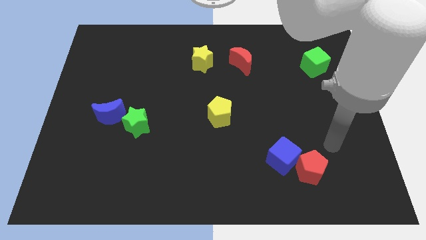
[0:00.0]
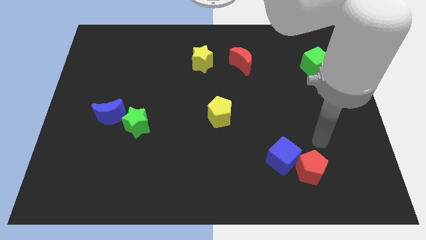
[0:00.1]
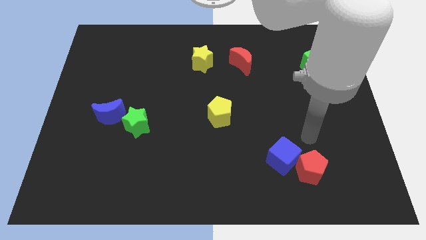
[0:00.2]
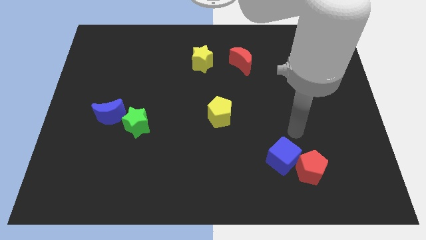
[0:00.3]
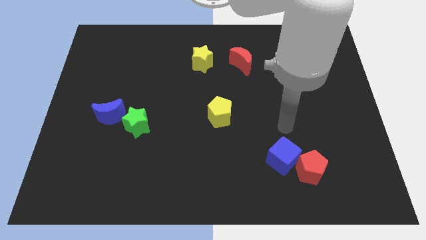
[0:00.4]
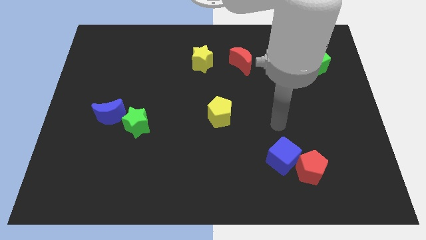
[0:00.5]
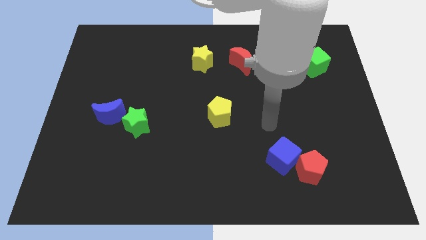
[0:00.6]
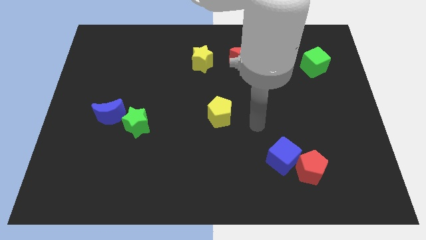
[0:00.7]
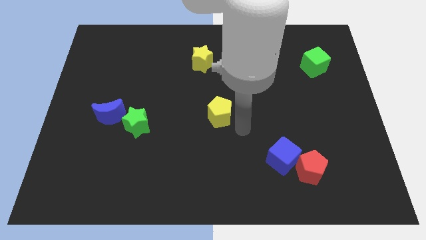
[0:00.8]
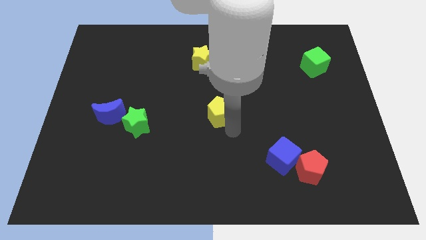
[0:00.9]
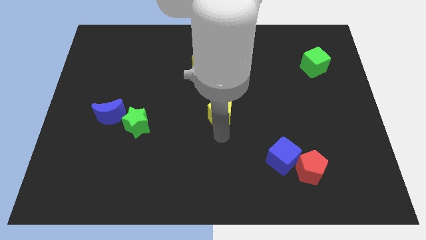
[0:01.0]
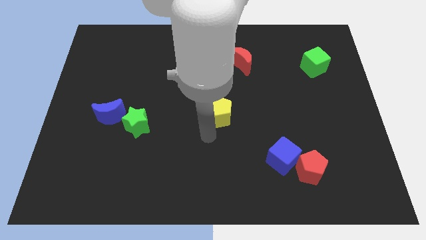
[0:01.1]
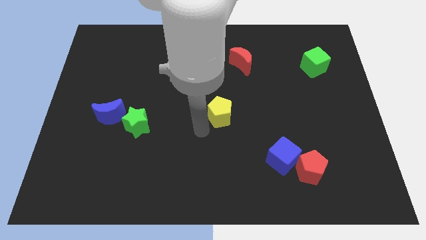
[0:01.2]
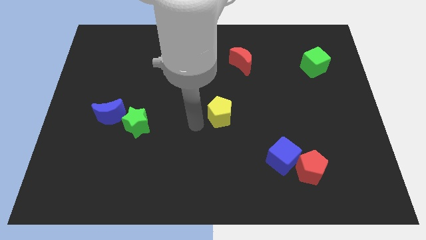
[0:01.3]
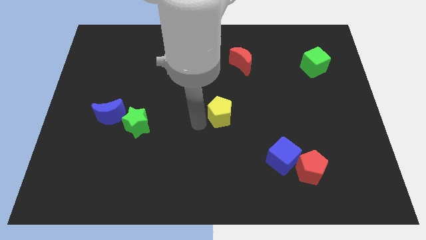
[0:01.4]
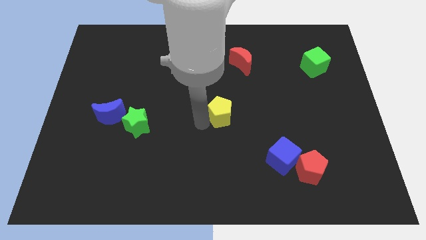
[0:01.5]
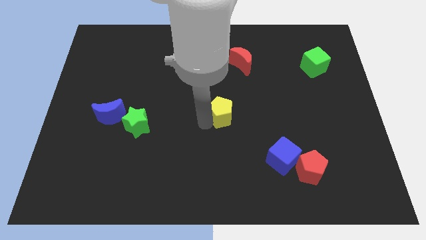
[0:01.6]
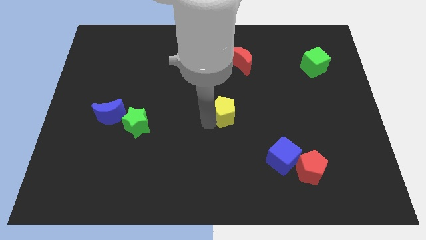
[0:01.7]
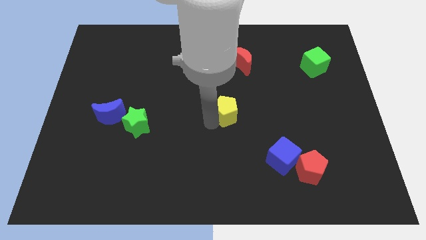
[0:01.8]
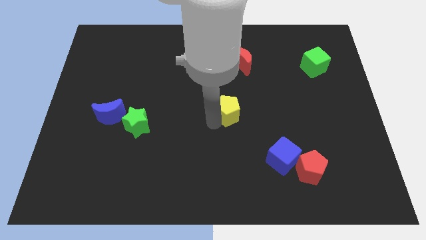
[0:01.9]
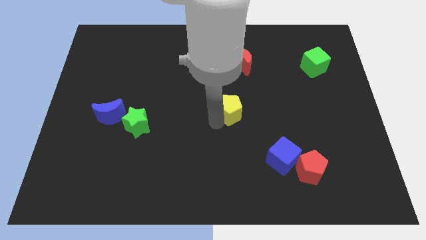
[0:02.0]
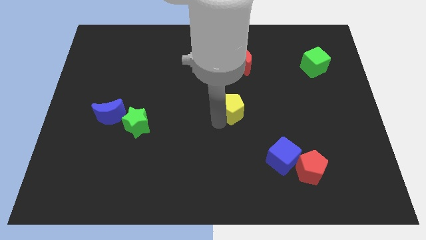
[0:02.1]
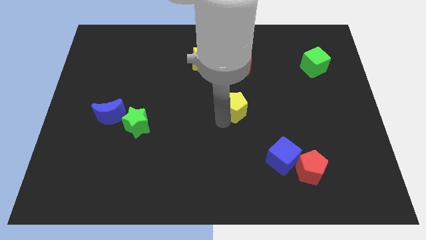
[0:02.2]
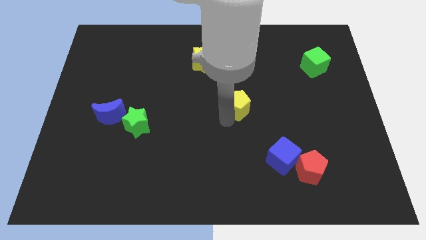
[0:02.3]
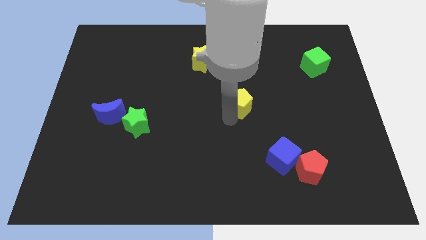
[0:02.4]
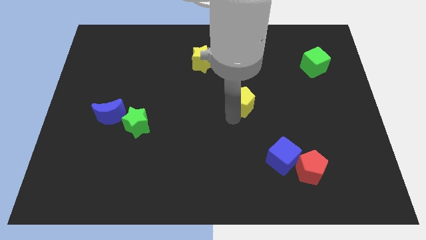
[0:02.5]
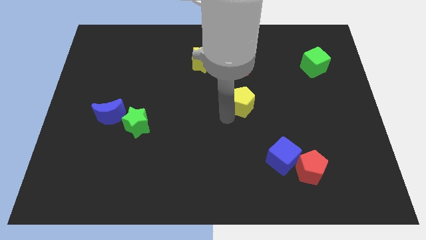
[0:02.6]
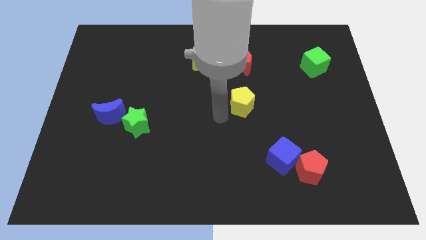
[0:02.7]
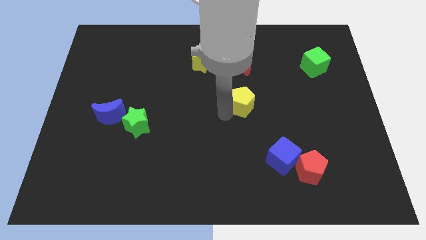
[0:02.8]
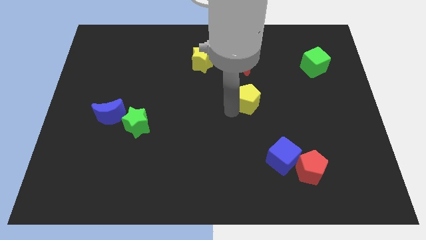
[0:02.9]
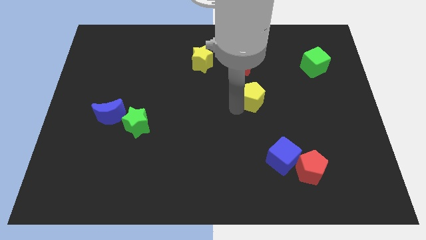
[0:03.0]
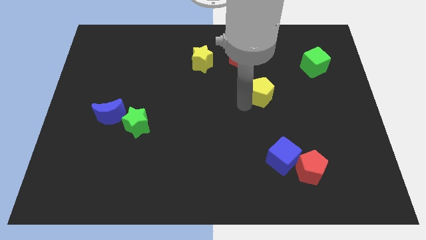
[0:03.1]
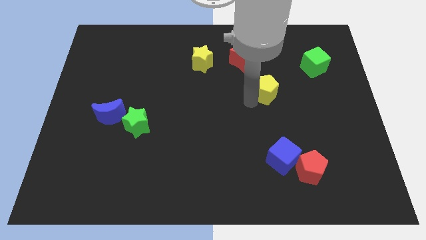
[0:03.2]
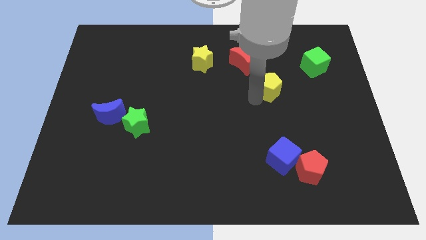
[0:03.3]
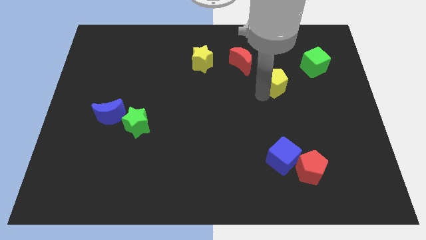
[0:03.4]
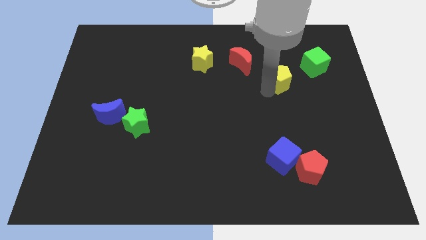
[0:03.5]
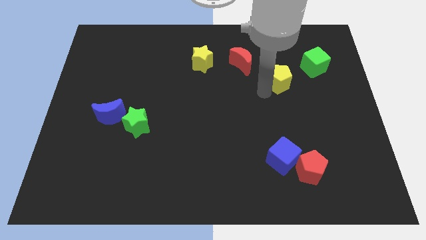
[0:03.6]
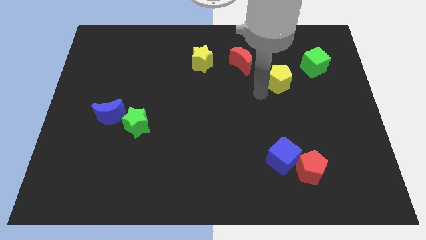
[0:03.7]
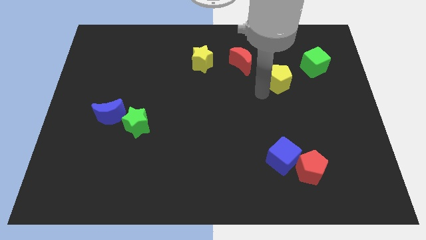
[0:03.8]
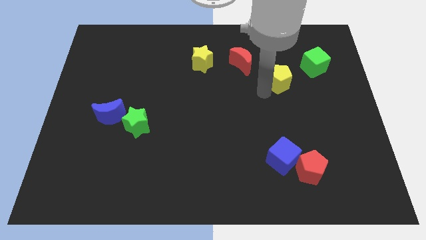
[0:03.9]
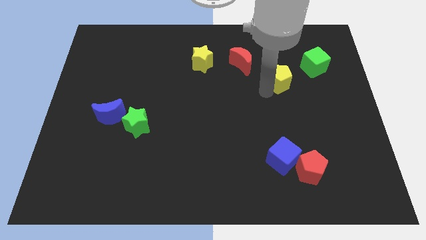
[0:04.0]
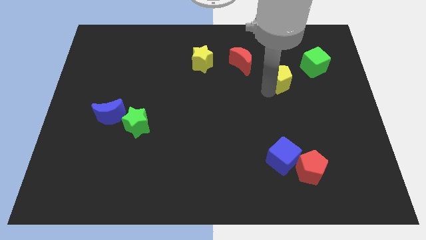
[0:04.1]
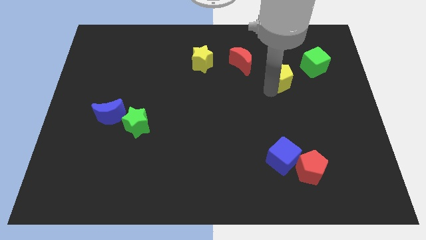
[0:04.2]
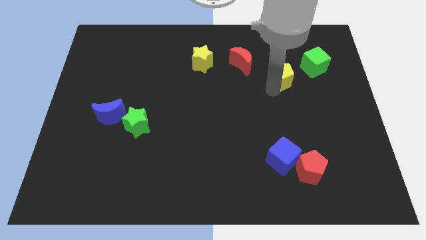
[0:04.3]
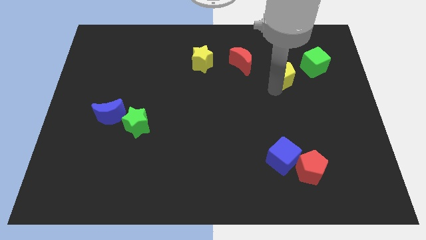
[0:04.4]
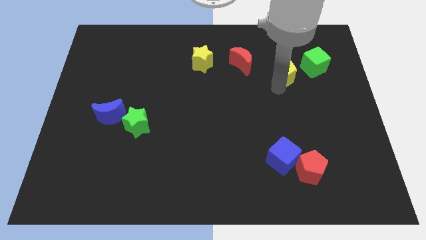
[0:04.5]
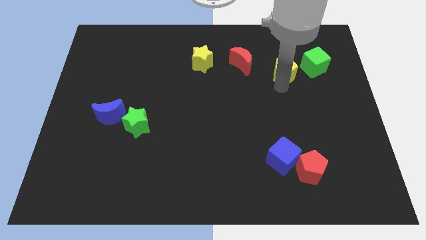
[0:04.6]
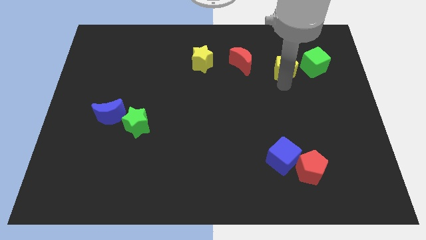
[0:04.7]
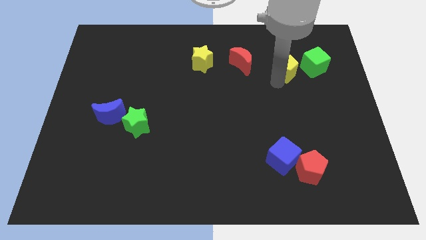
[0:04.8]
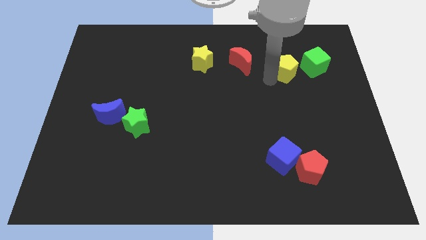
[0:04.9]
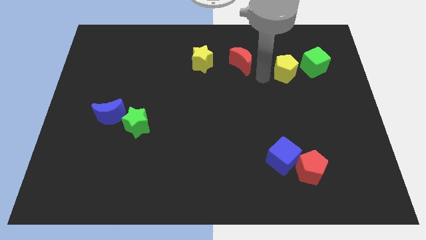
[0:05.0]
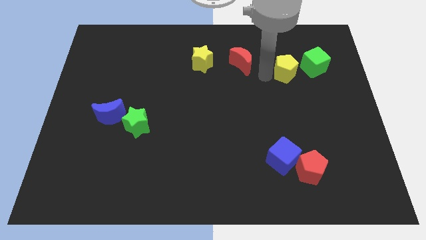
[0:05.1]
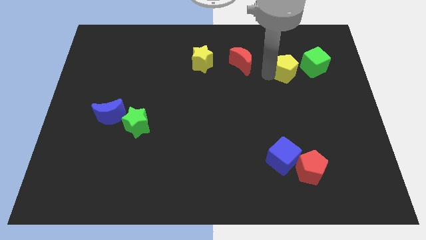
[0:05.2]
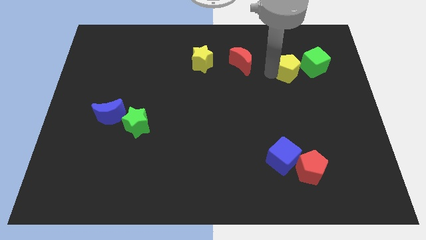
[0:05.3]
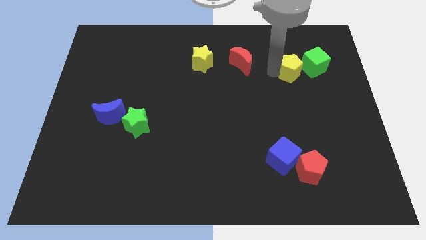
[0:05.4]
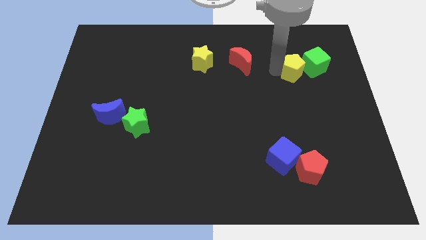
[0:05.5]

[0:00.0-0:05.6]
slide the yellow pentagon to the green cube

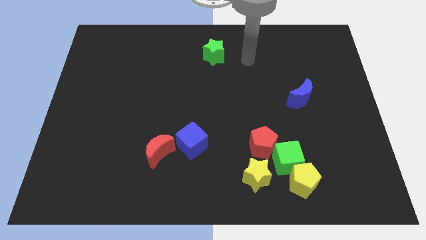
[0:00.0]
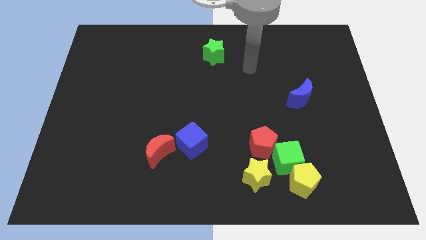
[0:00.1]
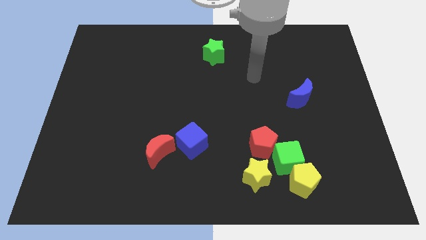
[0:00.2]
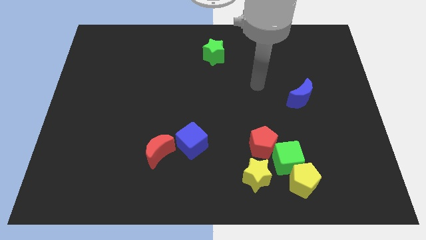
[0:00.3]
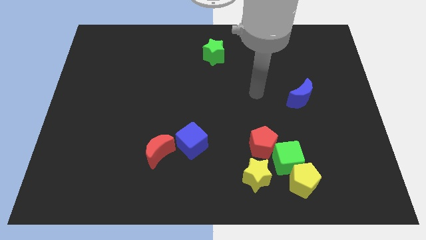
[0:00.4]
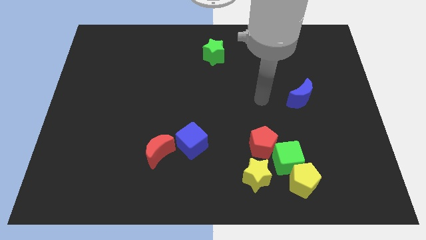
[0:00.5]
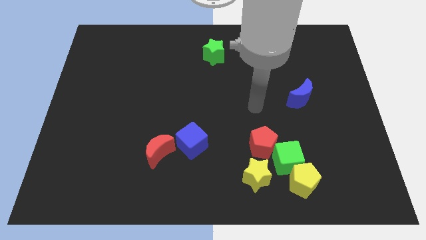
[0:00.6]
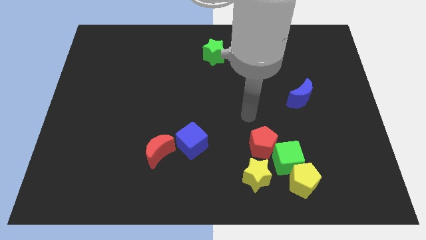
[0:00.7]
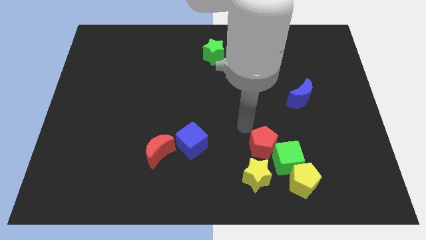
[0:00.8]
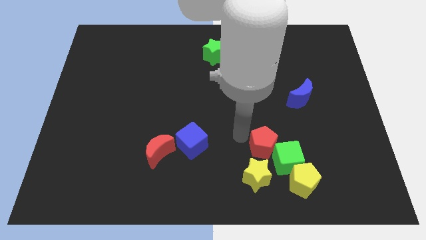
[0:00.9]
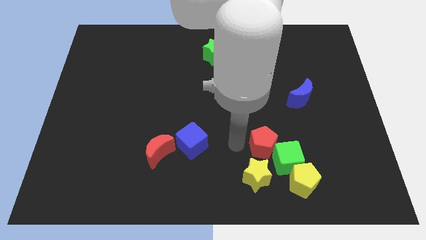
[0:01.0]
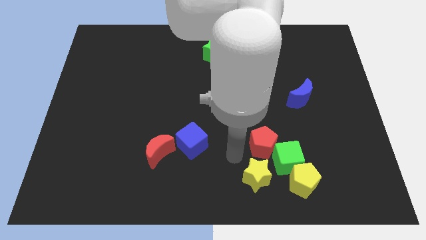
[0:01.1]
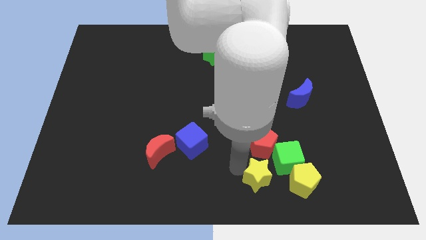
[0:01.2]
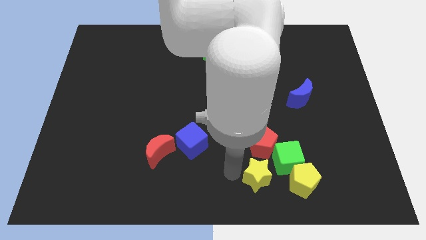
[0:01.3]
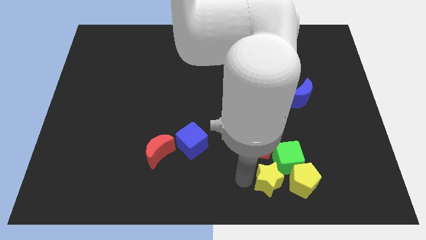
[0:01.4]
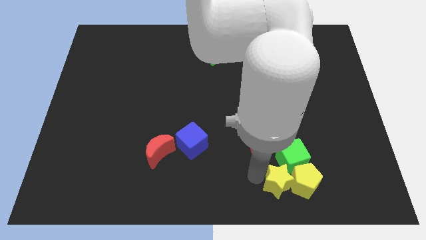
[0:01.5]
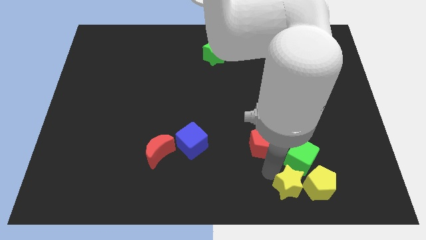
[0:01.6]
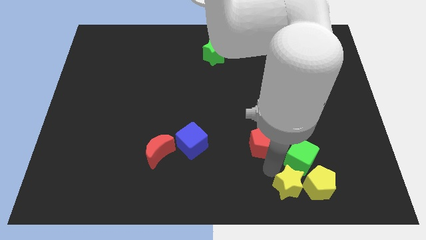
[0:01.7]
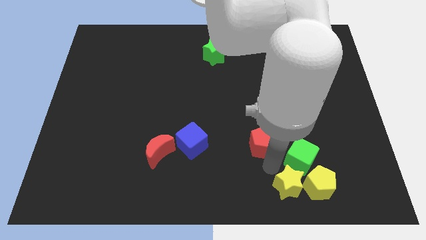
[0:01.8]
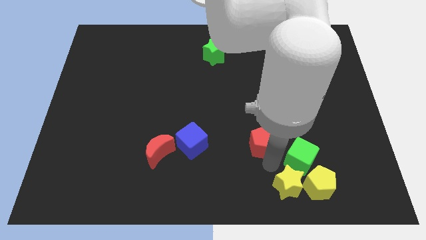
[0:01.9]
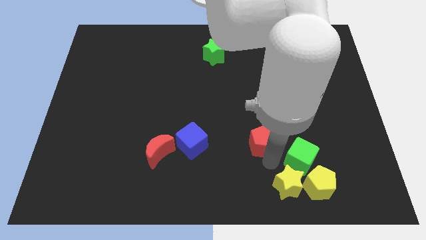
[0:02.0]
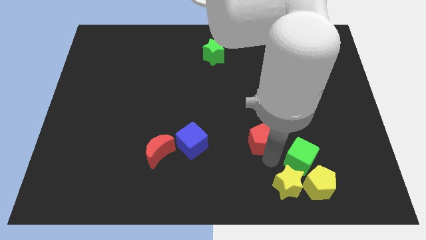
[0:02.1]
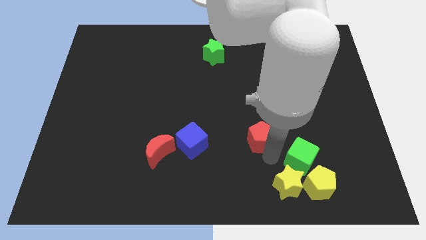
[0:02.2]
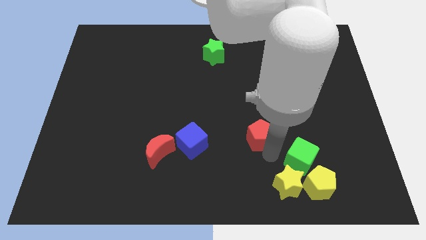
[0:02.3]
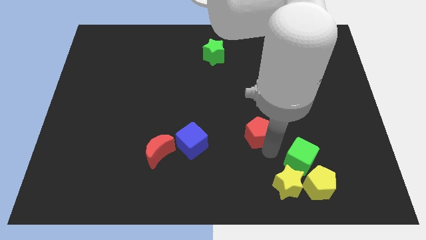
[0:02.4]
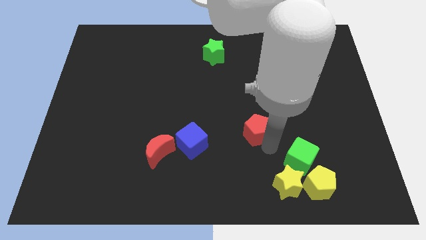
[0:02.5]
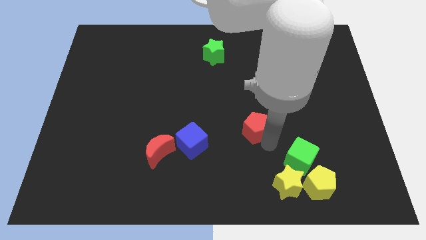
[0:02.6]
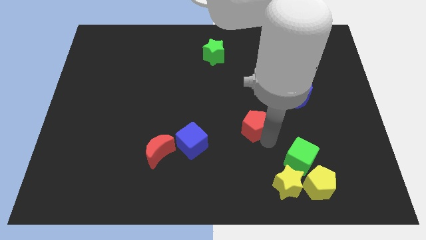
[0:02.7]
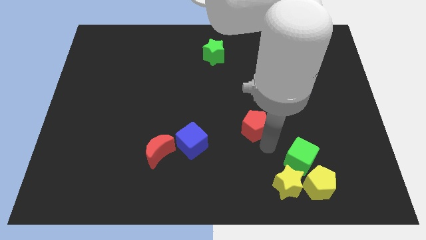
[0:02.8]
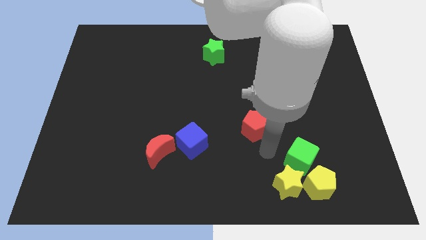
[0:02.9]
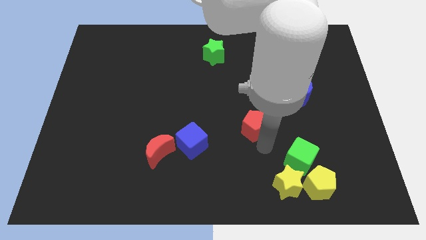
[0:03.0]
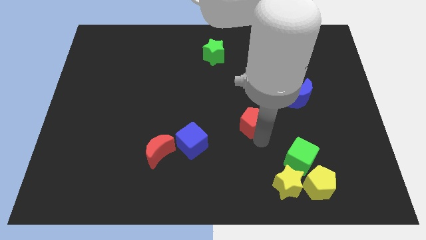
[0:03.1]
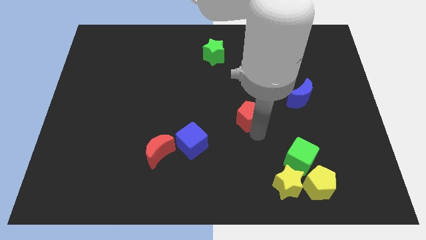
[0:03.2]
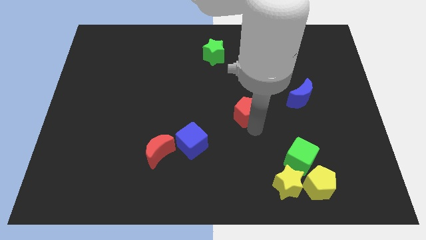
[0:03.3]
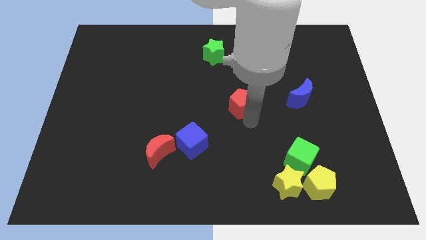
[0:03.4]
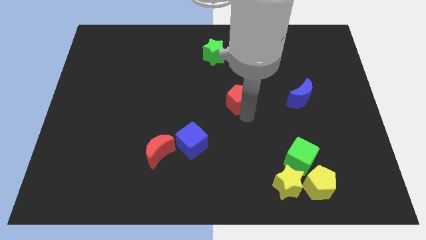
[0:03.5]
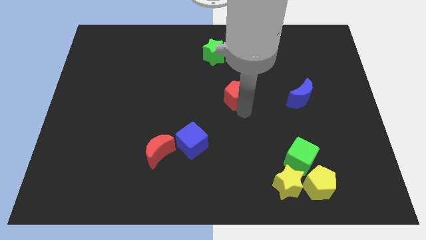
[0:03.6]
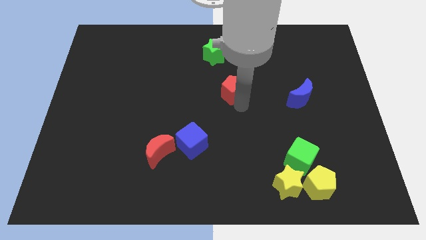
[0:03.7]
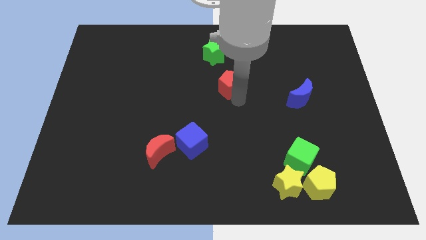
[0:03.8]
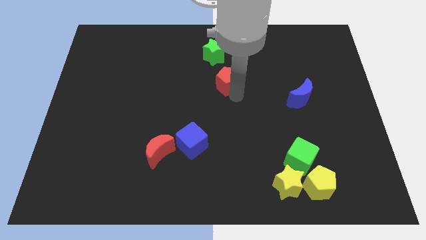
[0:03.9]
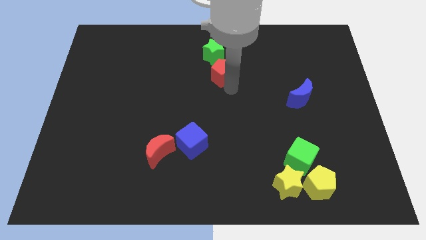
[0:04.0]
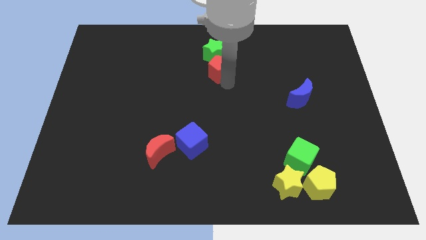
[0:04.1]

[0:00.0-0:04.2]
slide the red pentagon to the green star
